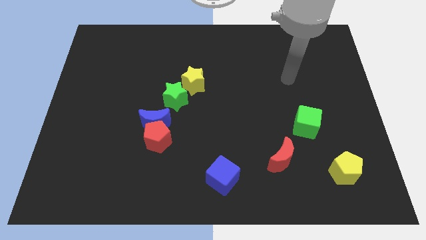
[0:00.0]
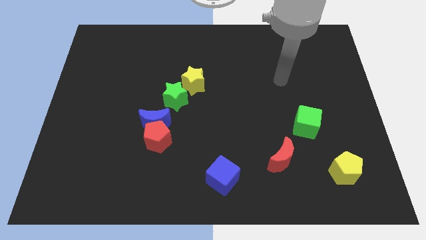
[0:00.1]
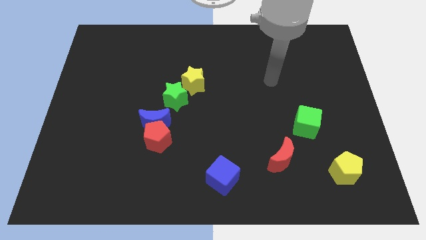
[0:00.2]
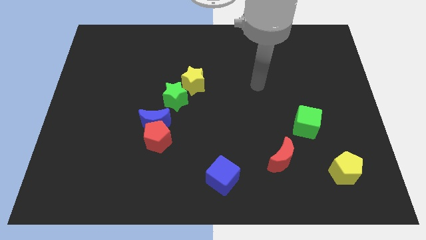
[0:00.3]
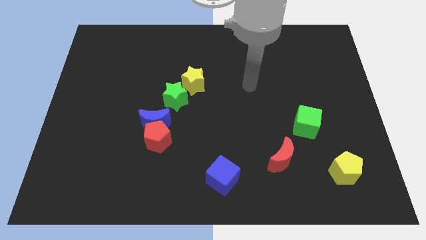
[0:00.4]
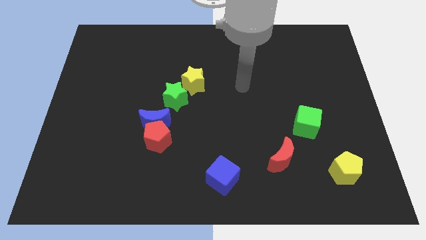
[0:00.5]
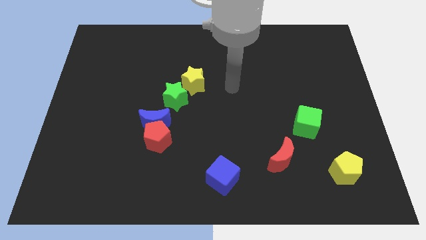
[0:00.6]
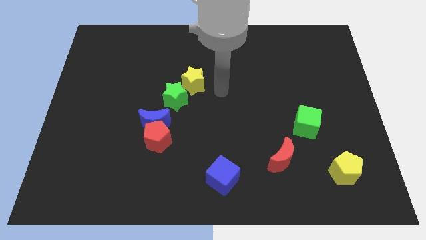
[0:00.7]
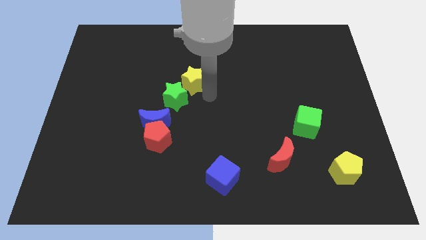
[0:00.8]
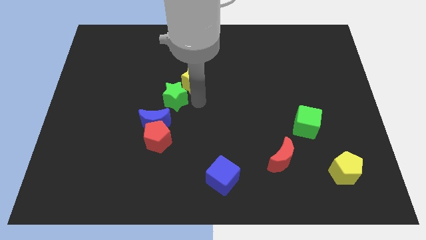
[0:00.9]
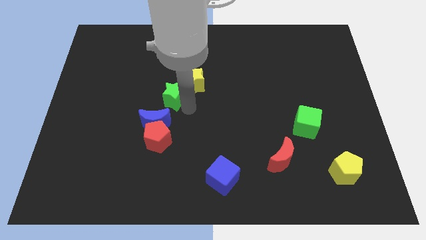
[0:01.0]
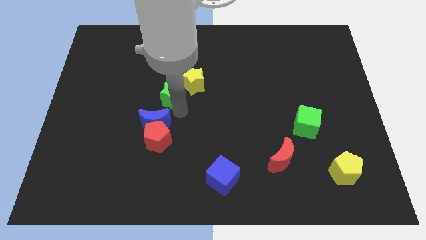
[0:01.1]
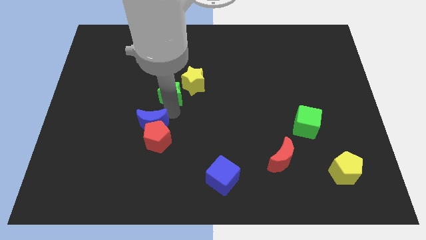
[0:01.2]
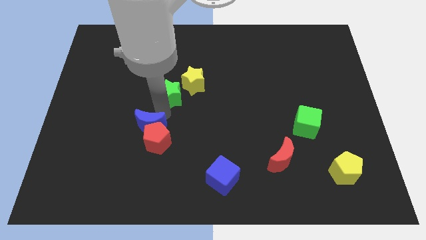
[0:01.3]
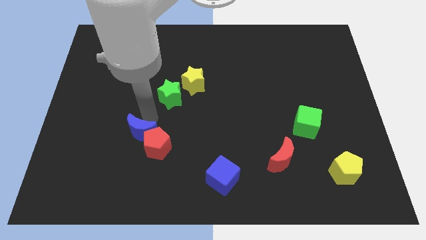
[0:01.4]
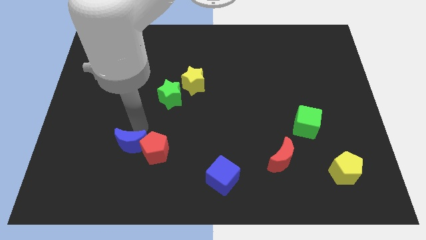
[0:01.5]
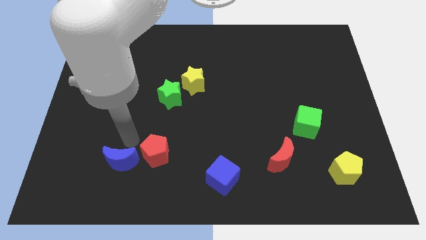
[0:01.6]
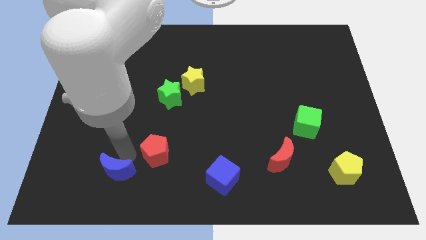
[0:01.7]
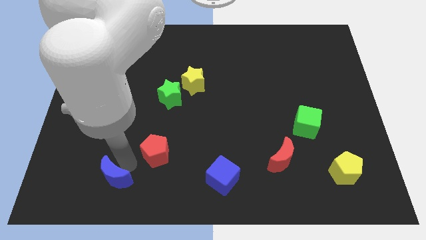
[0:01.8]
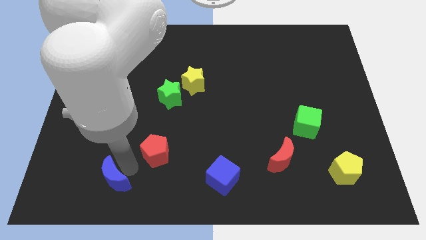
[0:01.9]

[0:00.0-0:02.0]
pull the red pentagon apart from the blue moon

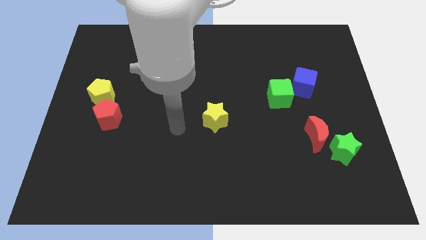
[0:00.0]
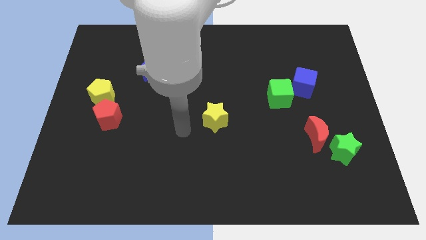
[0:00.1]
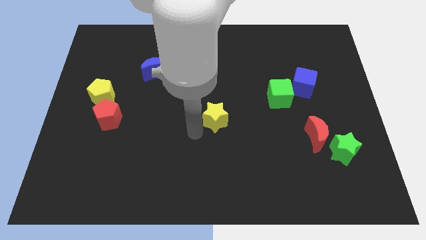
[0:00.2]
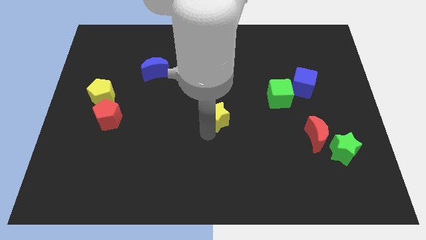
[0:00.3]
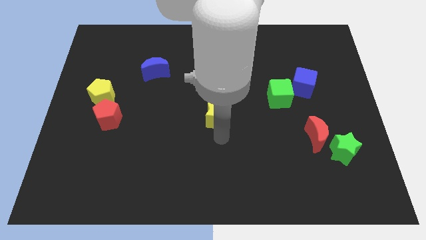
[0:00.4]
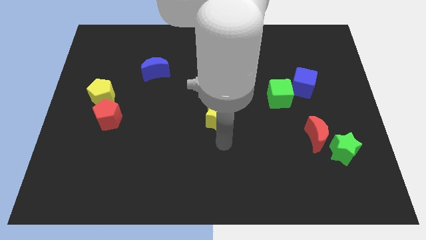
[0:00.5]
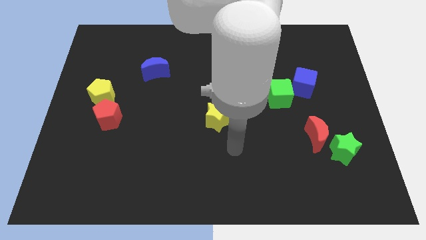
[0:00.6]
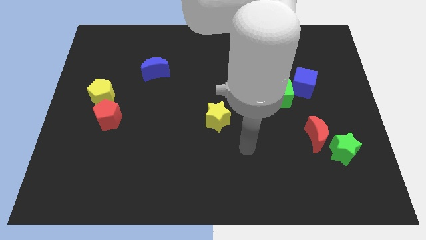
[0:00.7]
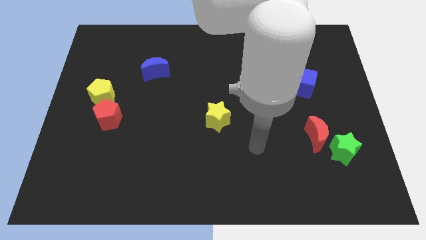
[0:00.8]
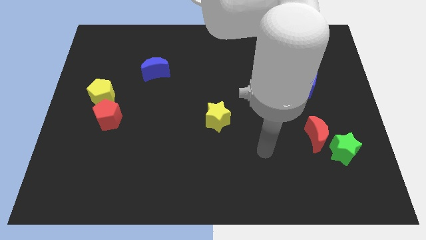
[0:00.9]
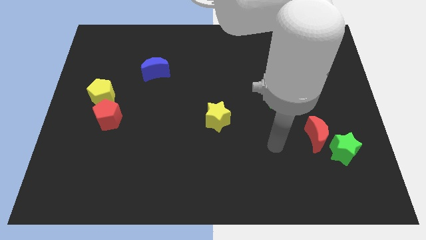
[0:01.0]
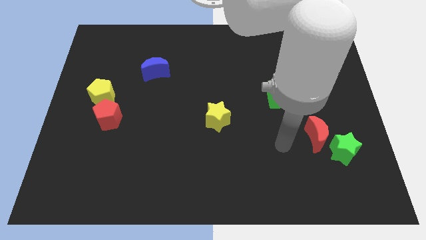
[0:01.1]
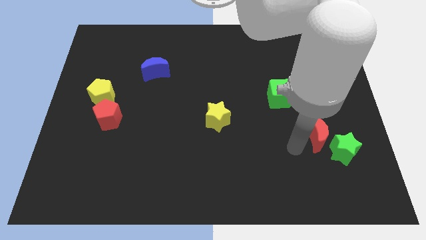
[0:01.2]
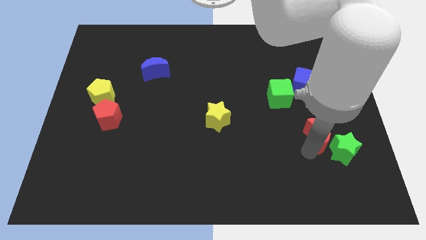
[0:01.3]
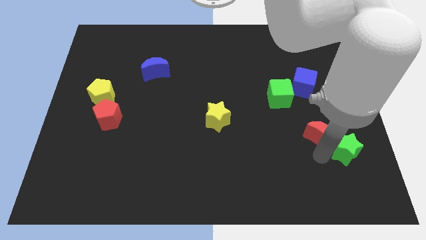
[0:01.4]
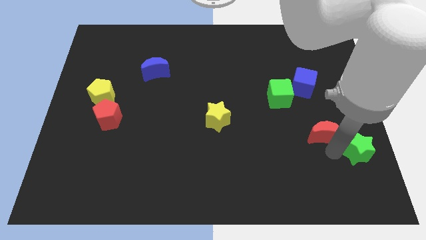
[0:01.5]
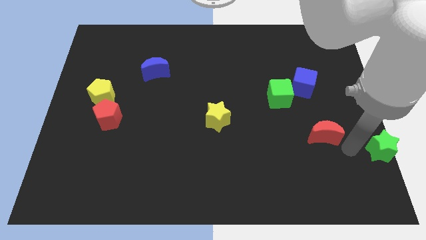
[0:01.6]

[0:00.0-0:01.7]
pull the red moon apart from the green star

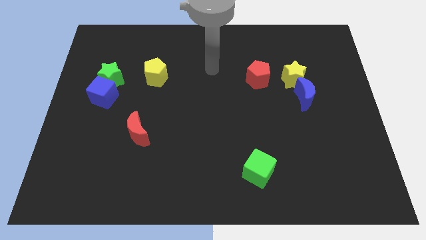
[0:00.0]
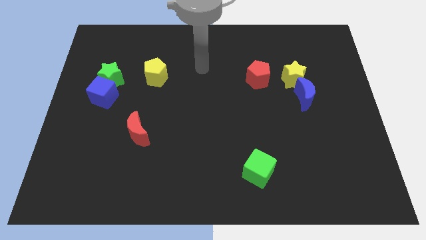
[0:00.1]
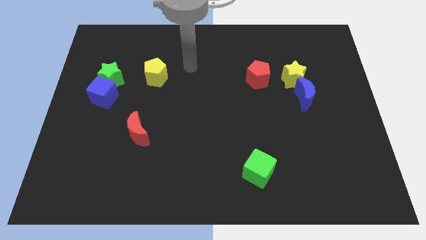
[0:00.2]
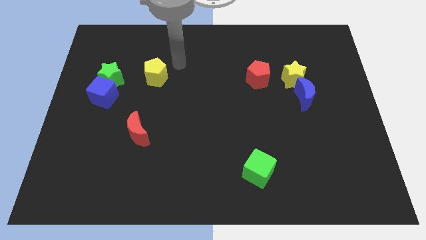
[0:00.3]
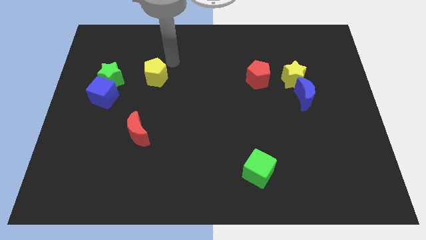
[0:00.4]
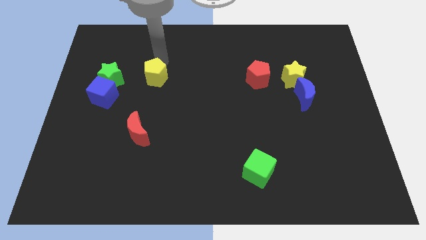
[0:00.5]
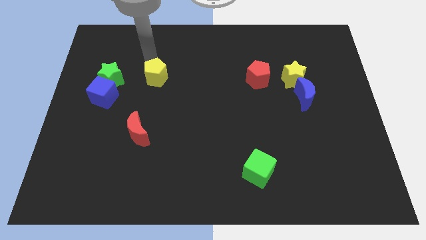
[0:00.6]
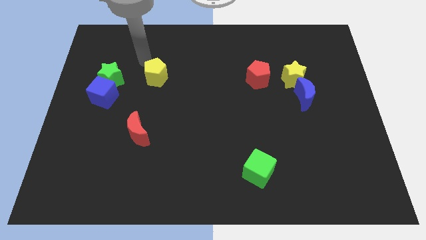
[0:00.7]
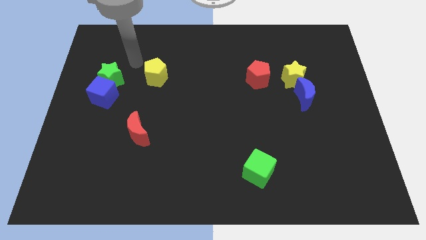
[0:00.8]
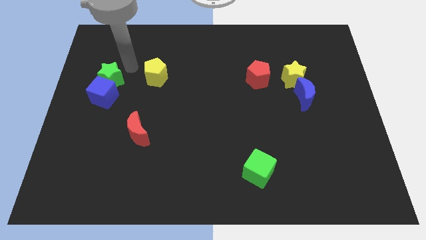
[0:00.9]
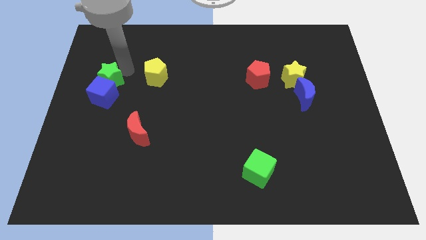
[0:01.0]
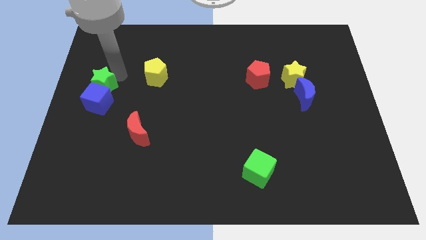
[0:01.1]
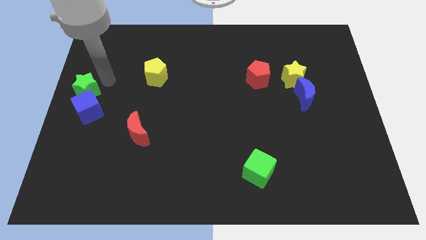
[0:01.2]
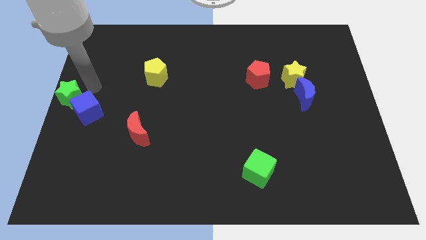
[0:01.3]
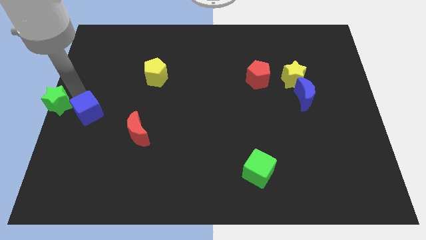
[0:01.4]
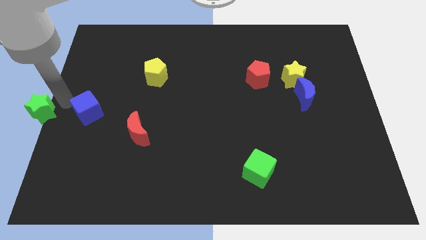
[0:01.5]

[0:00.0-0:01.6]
separate the blue cube from the green star

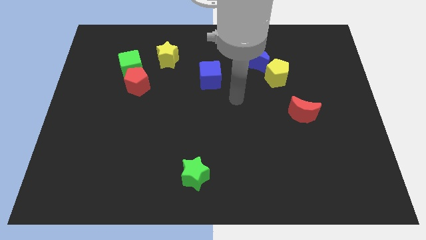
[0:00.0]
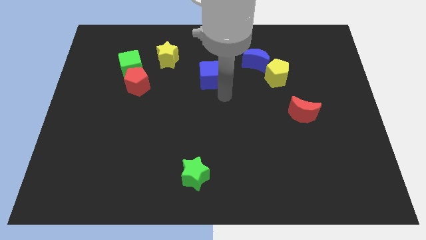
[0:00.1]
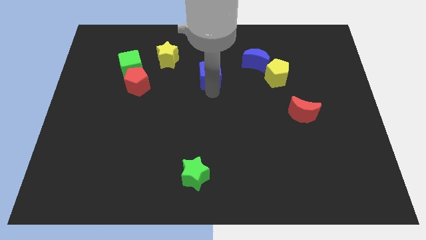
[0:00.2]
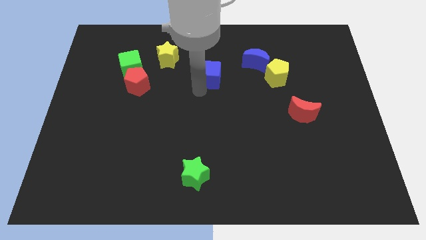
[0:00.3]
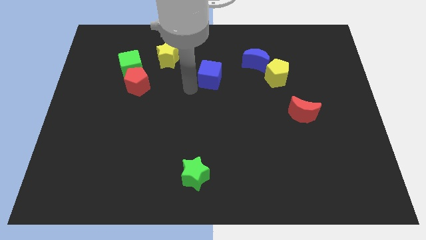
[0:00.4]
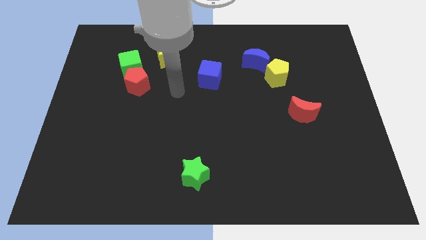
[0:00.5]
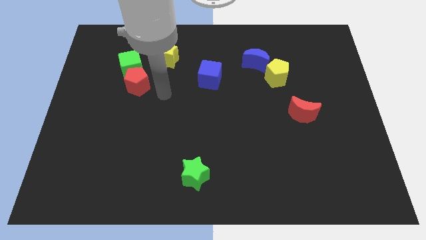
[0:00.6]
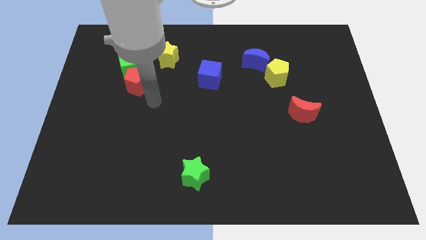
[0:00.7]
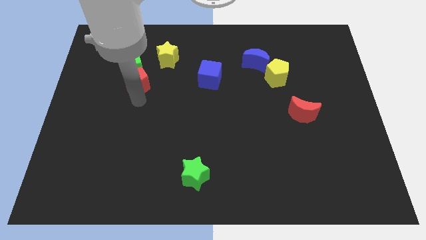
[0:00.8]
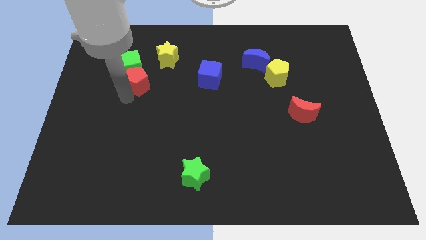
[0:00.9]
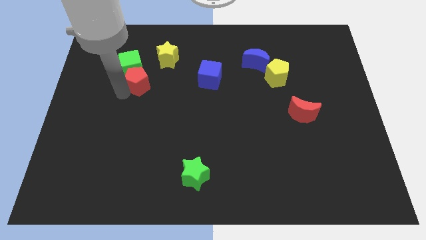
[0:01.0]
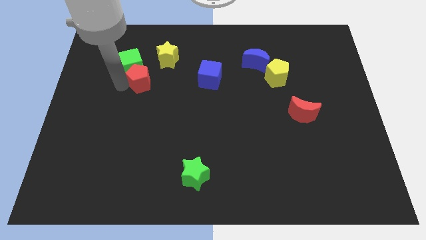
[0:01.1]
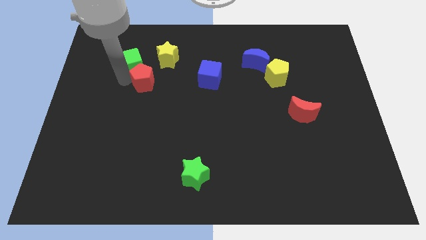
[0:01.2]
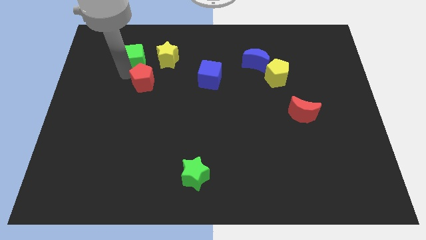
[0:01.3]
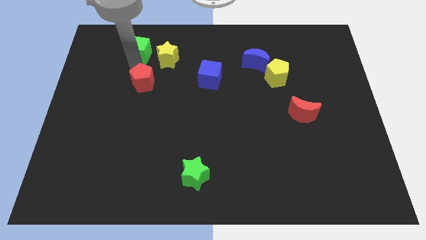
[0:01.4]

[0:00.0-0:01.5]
separate the red pentagon from the green cube

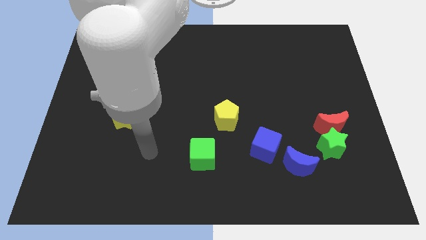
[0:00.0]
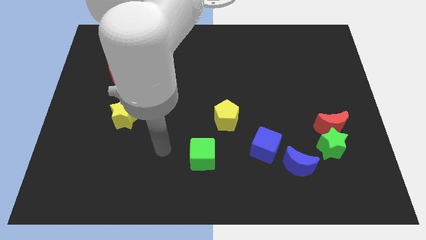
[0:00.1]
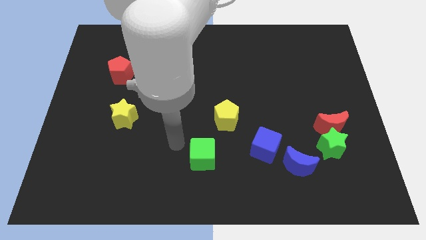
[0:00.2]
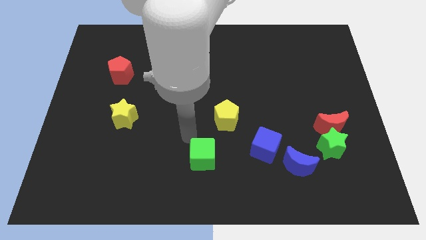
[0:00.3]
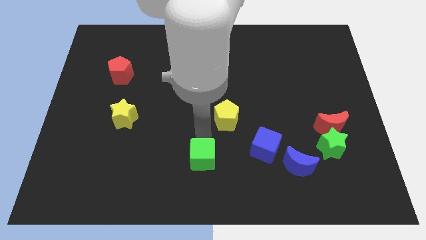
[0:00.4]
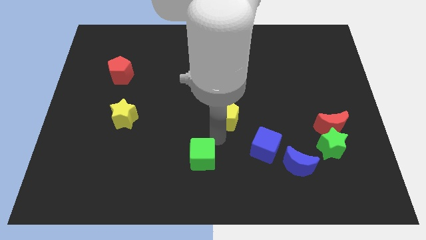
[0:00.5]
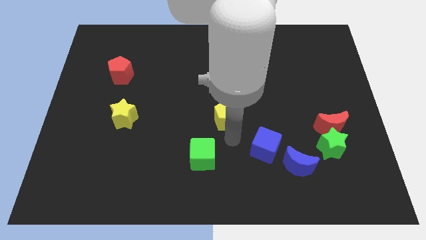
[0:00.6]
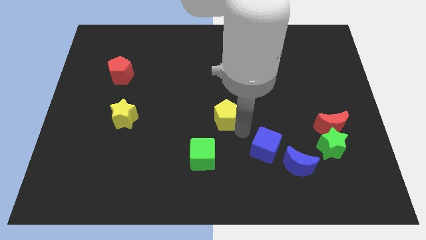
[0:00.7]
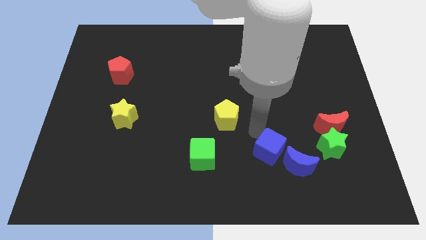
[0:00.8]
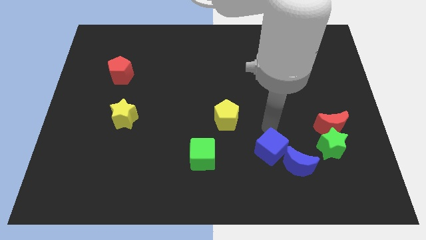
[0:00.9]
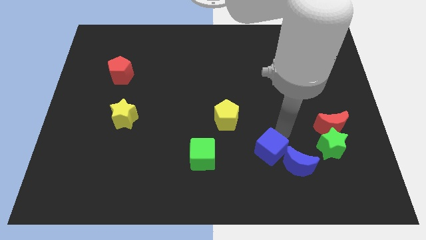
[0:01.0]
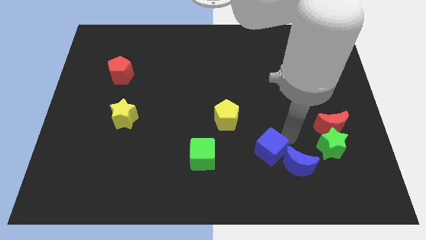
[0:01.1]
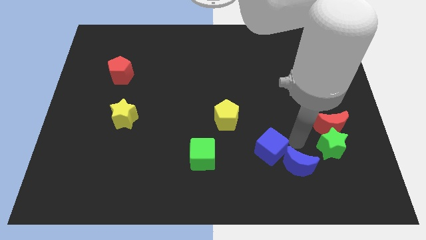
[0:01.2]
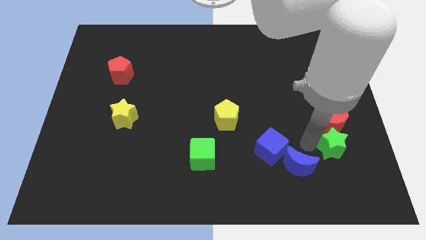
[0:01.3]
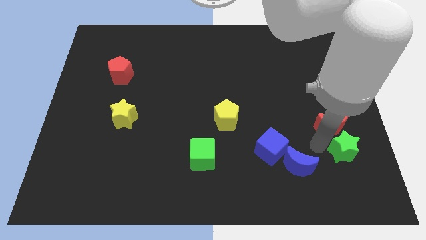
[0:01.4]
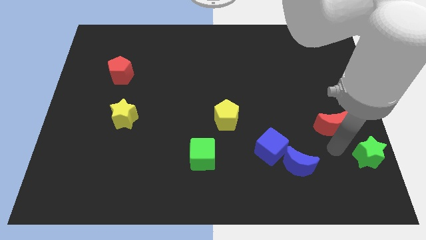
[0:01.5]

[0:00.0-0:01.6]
separate the red moon from the green star

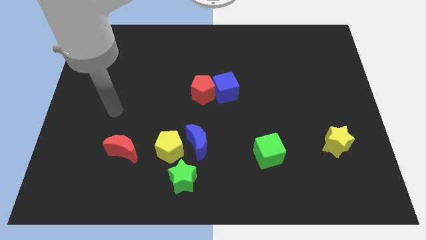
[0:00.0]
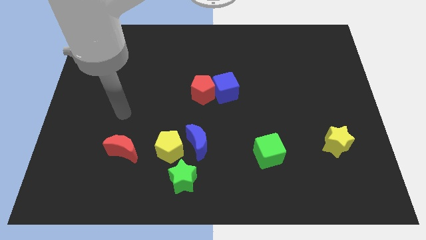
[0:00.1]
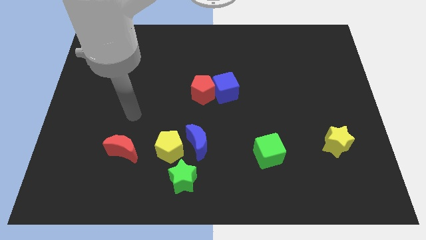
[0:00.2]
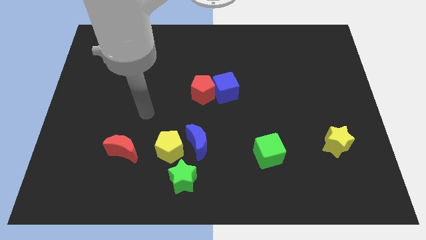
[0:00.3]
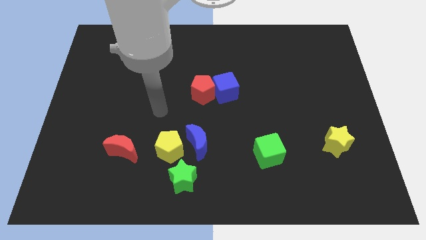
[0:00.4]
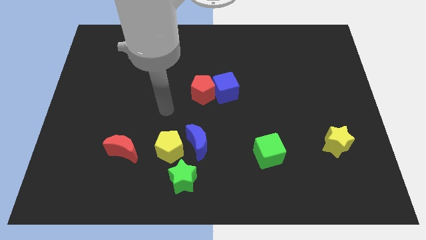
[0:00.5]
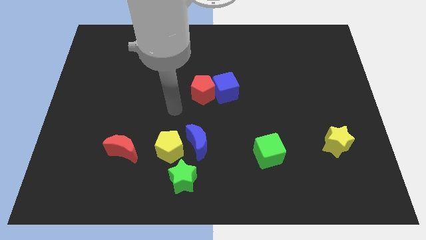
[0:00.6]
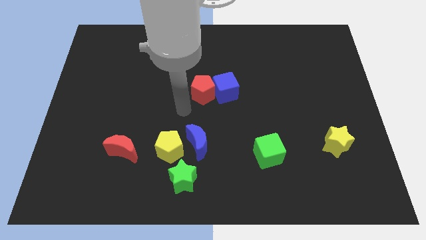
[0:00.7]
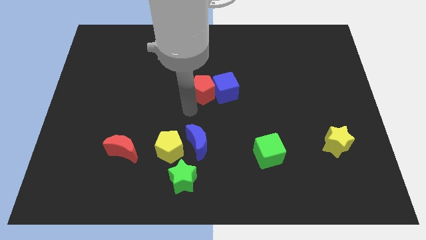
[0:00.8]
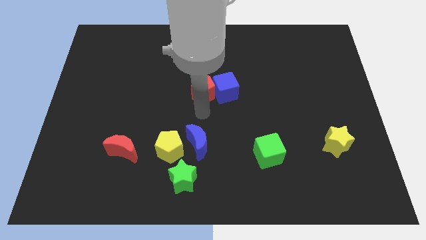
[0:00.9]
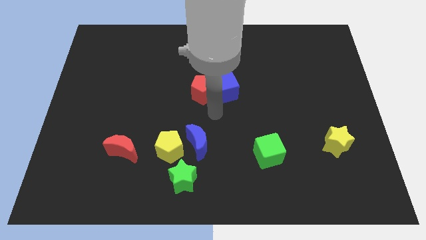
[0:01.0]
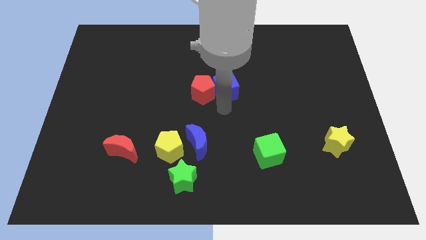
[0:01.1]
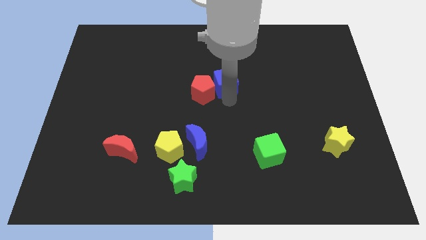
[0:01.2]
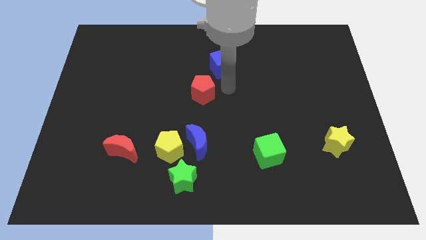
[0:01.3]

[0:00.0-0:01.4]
move the red pentagon away from the blue cube
